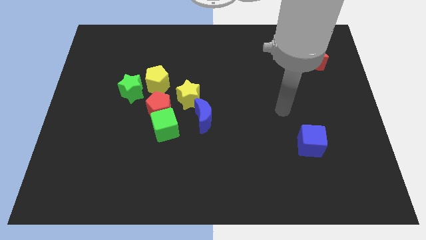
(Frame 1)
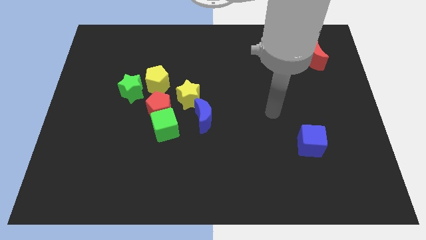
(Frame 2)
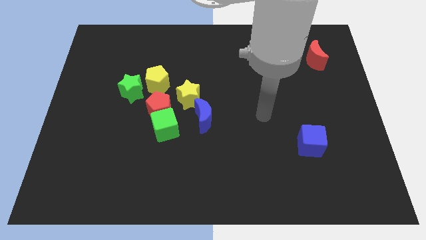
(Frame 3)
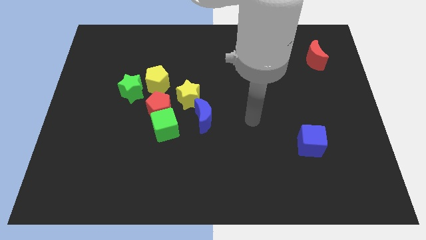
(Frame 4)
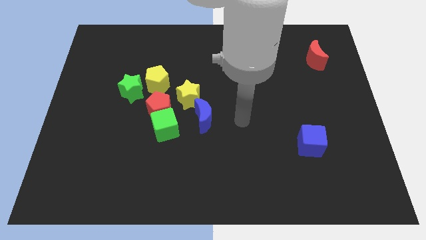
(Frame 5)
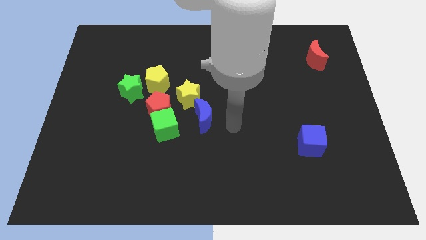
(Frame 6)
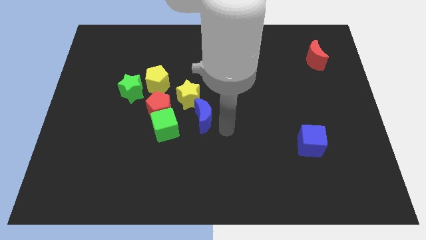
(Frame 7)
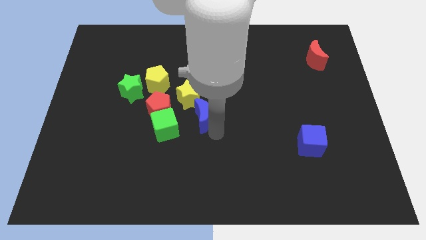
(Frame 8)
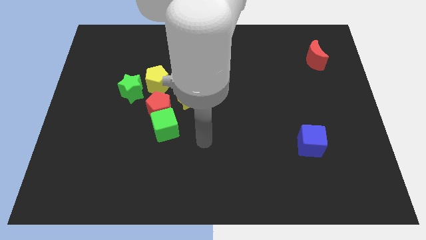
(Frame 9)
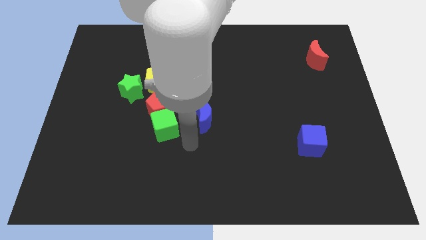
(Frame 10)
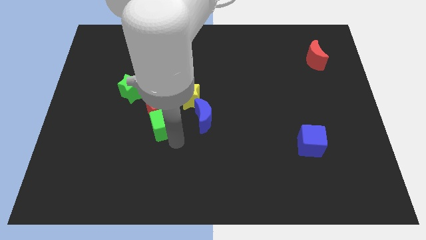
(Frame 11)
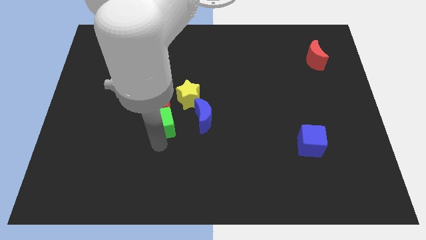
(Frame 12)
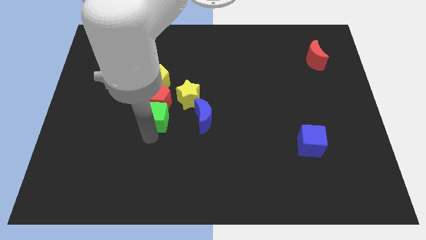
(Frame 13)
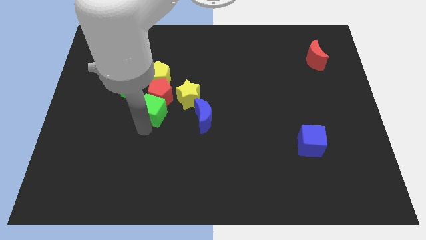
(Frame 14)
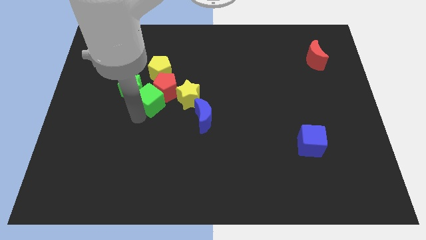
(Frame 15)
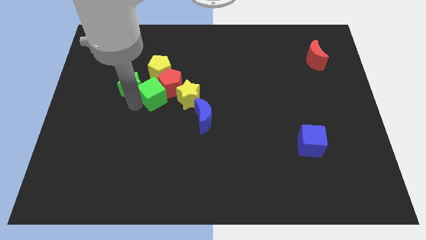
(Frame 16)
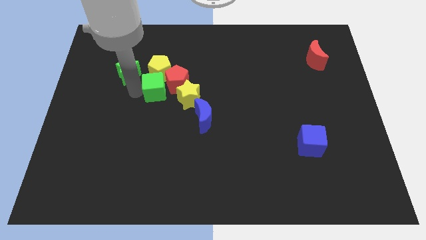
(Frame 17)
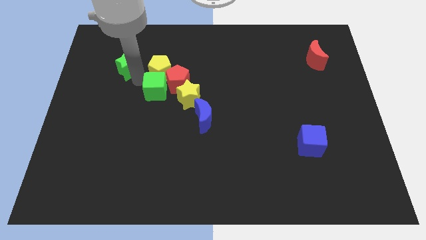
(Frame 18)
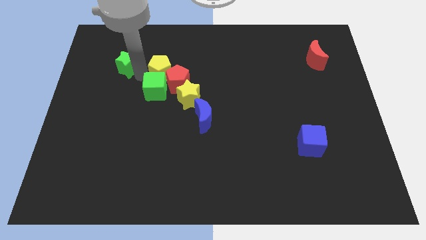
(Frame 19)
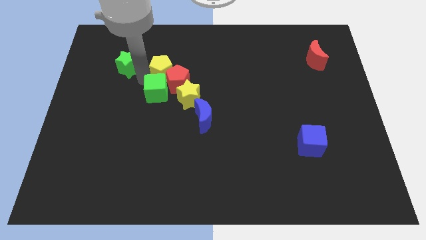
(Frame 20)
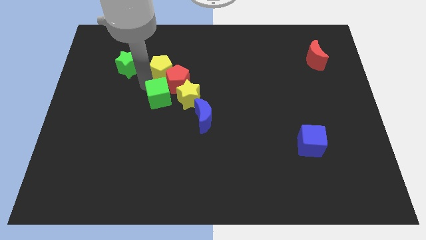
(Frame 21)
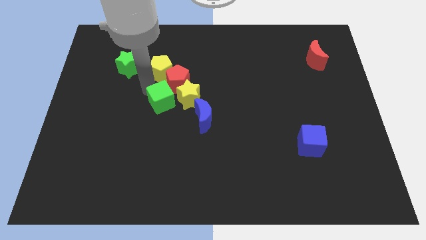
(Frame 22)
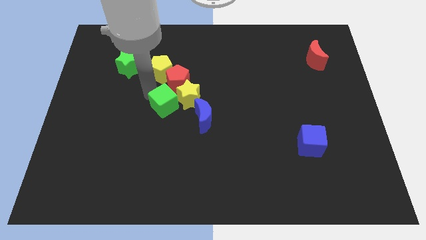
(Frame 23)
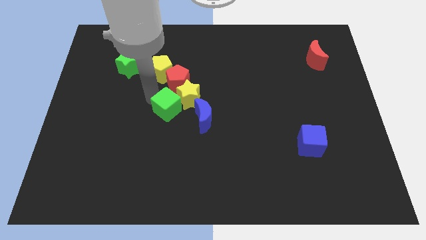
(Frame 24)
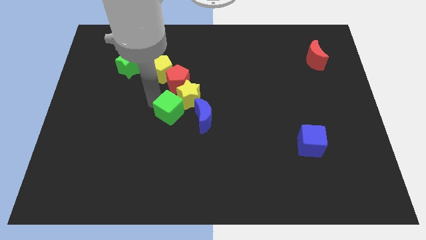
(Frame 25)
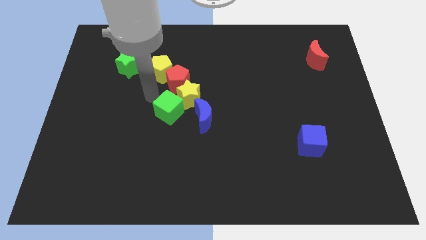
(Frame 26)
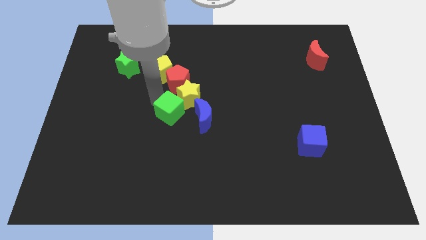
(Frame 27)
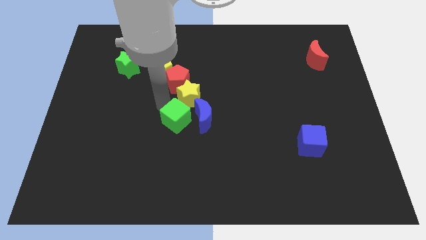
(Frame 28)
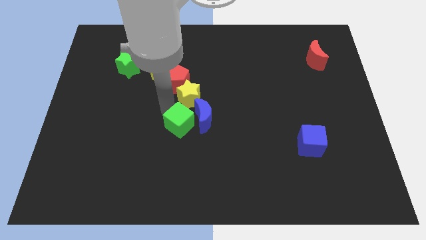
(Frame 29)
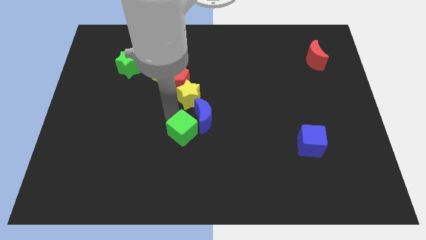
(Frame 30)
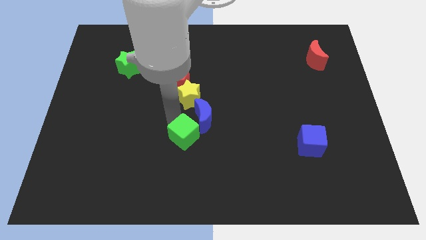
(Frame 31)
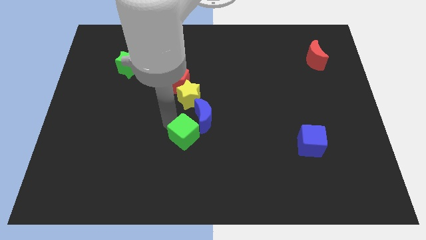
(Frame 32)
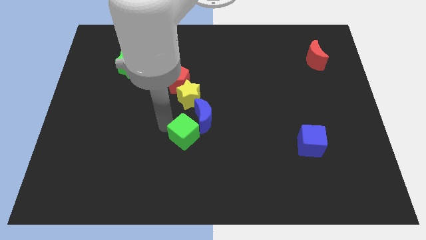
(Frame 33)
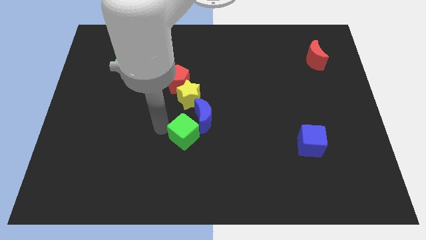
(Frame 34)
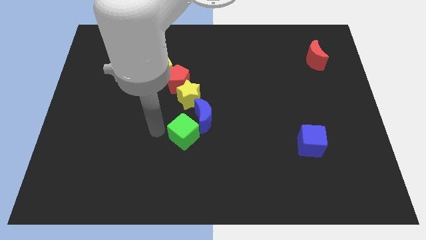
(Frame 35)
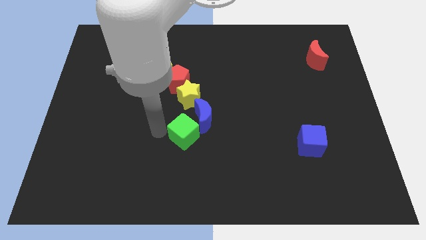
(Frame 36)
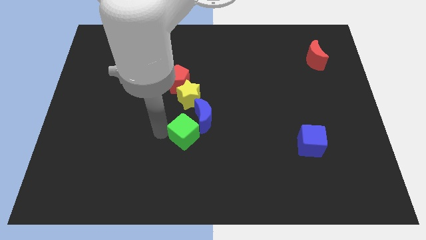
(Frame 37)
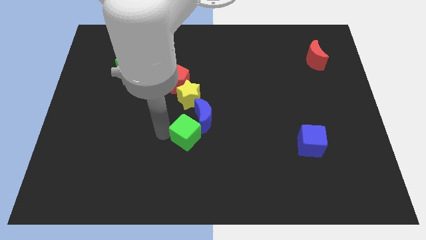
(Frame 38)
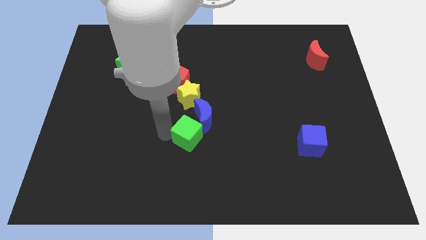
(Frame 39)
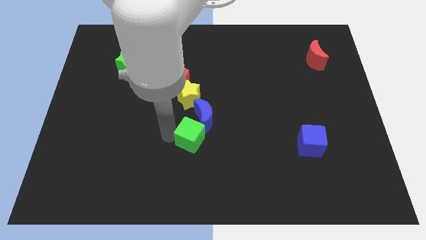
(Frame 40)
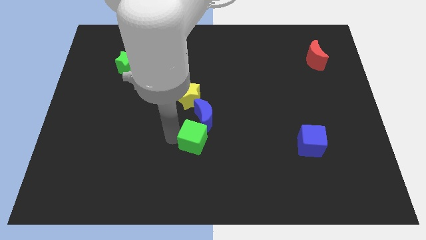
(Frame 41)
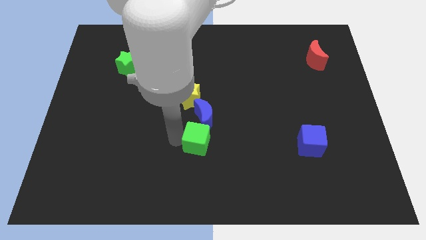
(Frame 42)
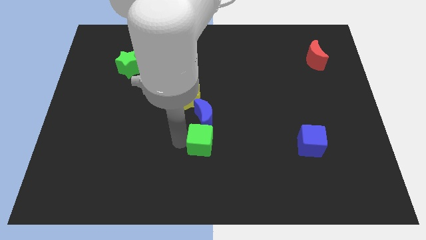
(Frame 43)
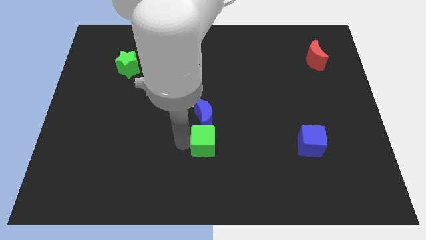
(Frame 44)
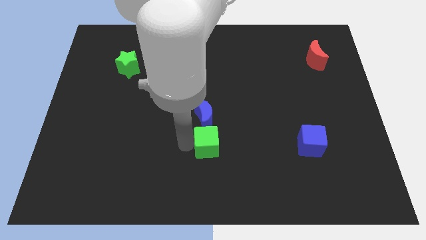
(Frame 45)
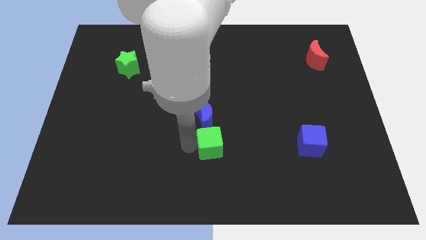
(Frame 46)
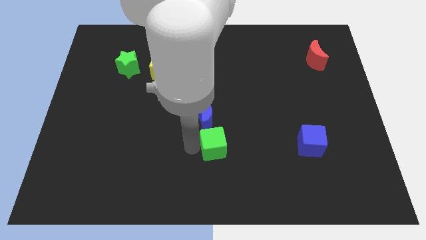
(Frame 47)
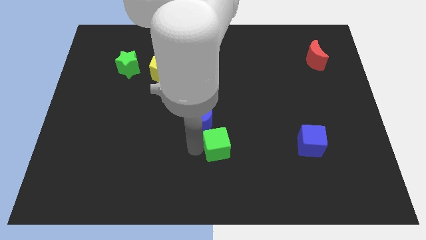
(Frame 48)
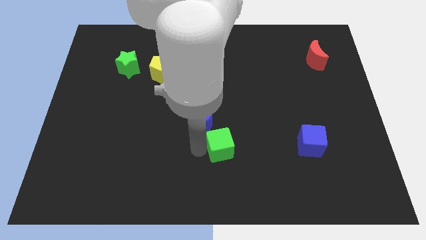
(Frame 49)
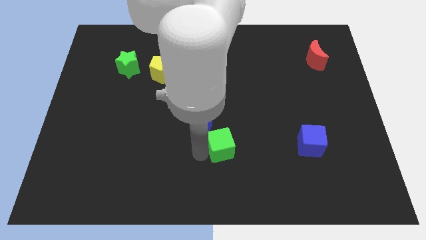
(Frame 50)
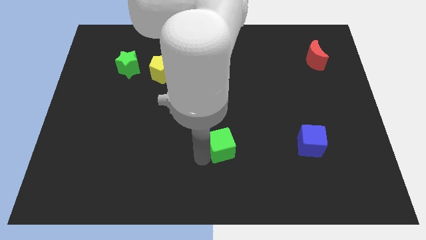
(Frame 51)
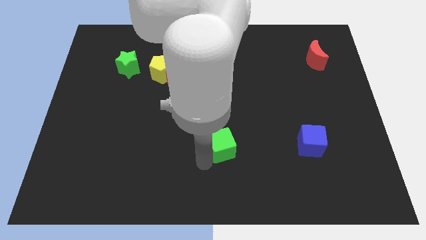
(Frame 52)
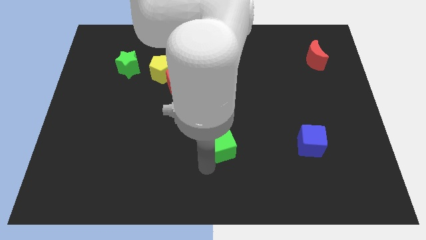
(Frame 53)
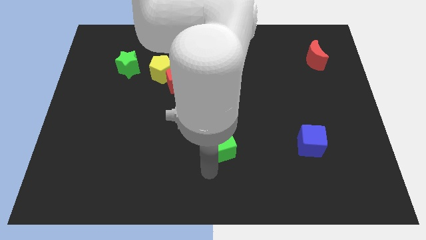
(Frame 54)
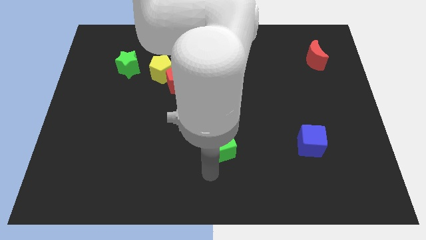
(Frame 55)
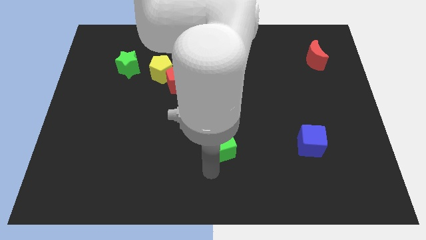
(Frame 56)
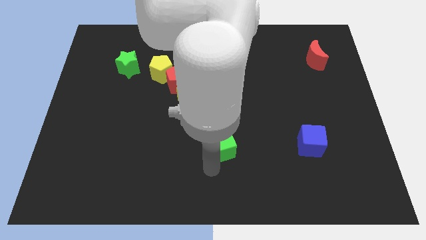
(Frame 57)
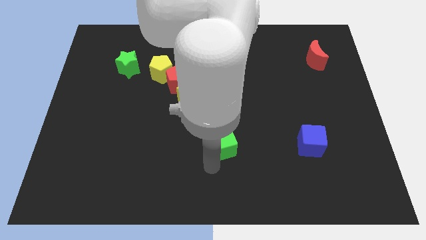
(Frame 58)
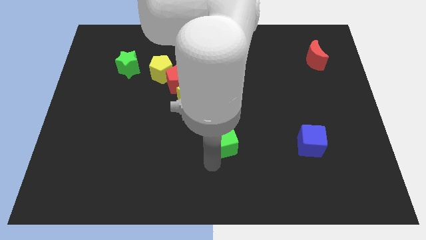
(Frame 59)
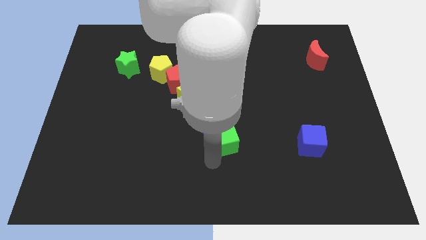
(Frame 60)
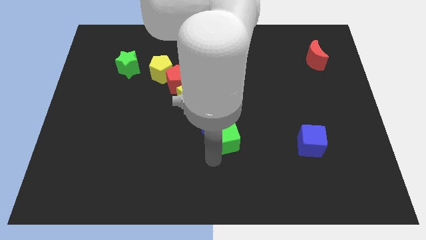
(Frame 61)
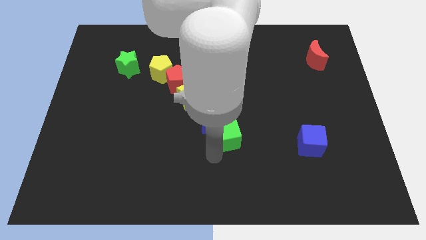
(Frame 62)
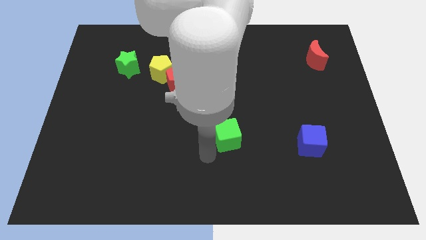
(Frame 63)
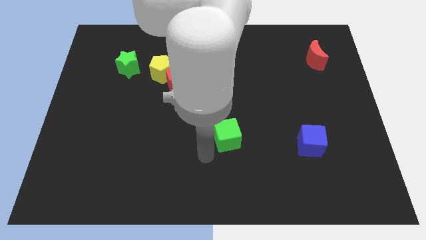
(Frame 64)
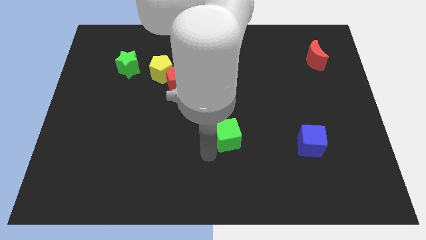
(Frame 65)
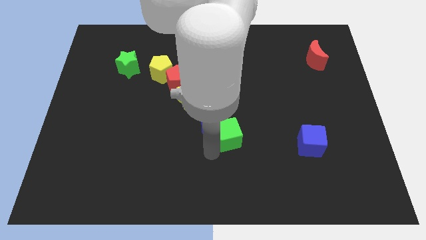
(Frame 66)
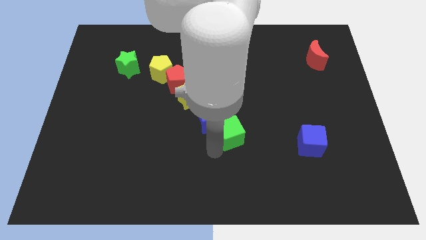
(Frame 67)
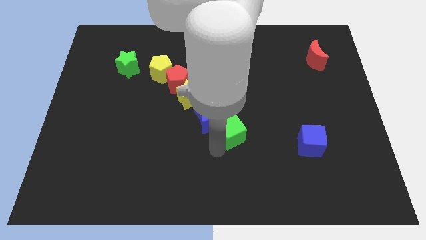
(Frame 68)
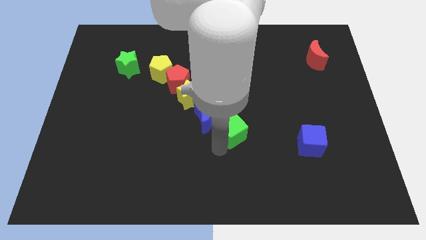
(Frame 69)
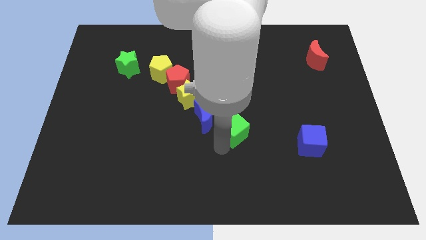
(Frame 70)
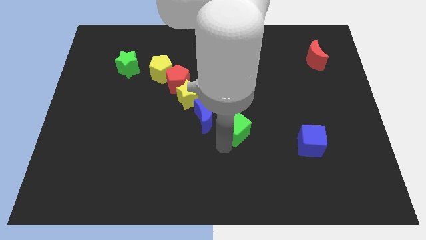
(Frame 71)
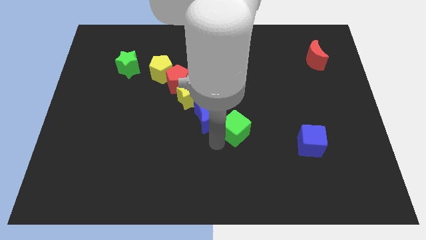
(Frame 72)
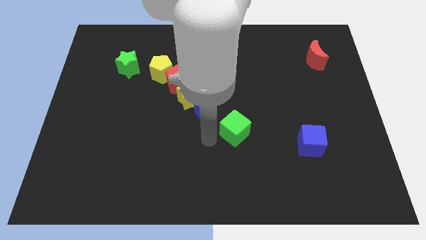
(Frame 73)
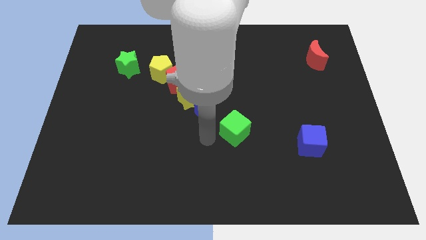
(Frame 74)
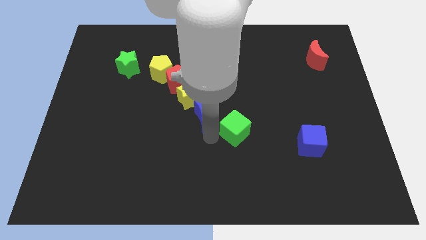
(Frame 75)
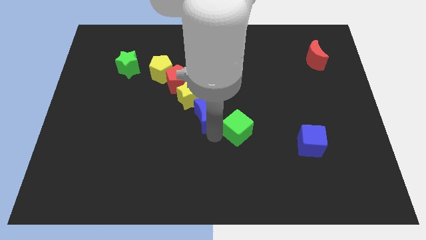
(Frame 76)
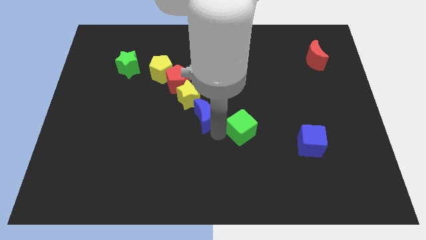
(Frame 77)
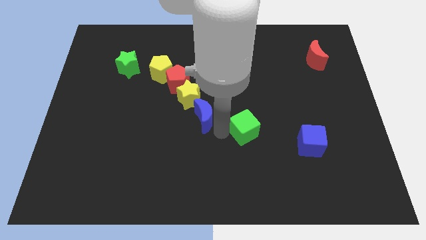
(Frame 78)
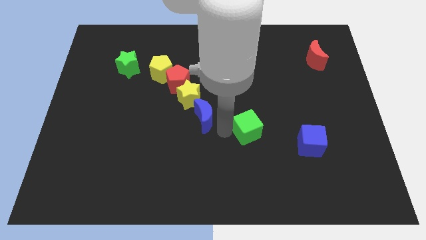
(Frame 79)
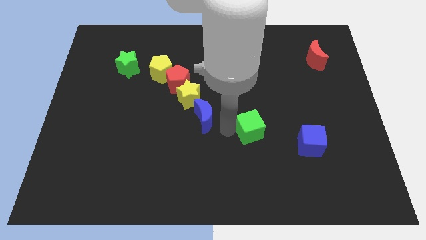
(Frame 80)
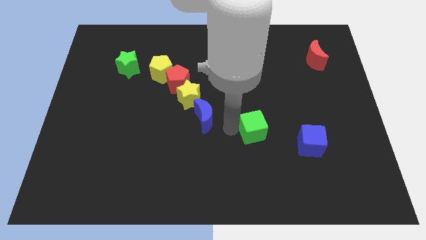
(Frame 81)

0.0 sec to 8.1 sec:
move the green cube right
